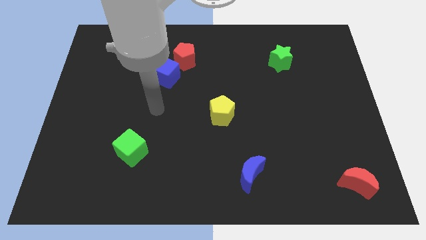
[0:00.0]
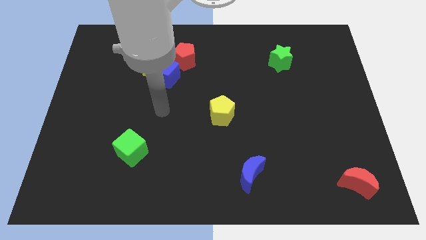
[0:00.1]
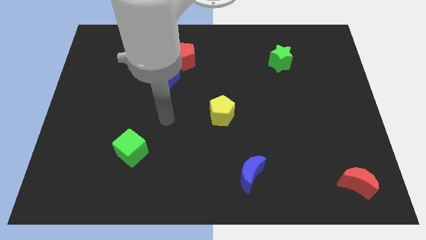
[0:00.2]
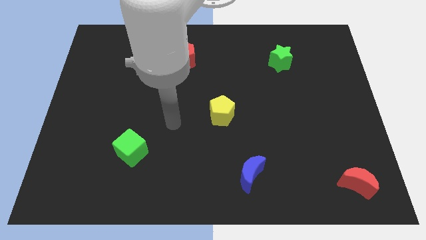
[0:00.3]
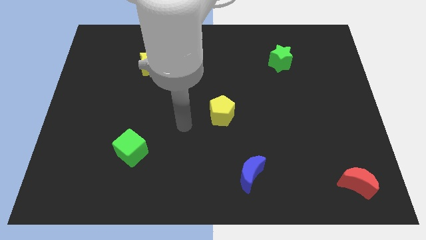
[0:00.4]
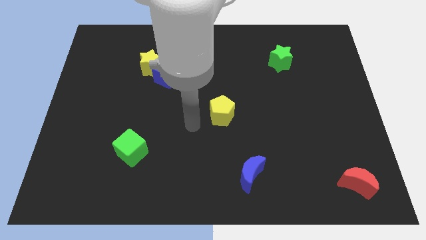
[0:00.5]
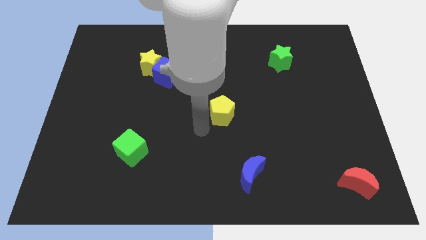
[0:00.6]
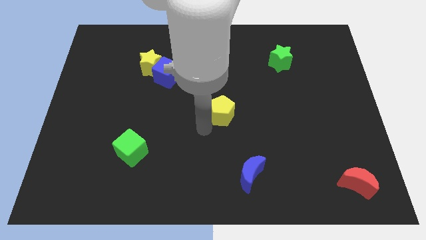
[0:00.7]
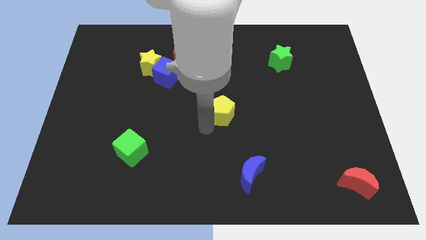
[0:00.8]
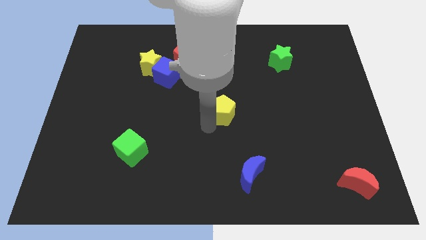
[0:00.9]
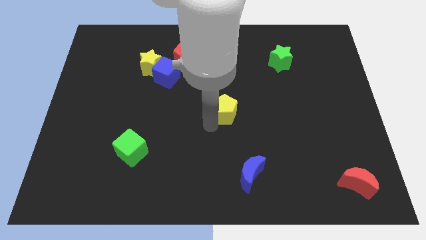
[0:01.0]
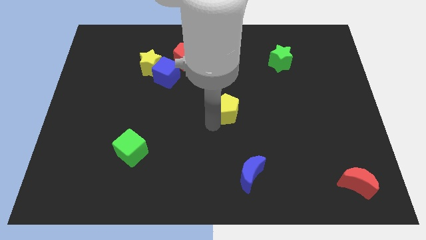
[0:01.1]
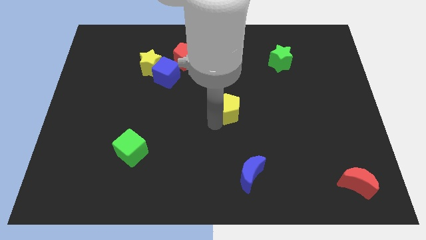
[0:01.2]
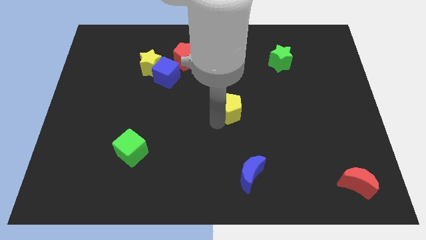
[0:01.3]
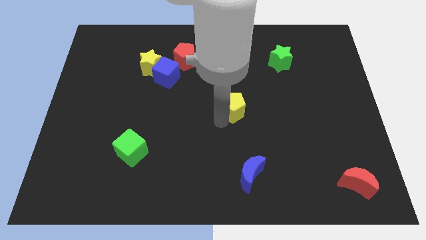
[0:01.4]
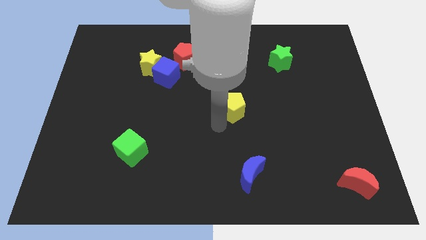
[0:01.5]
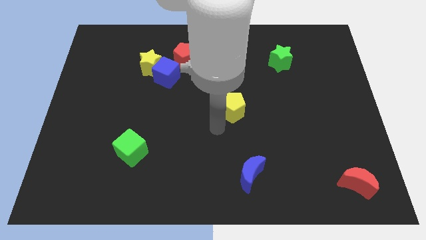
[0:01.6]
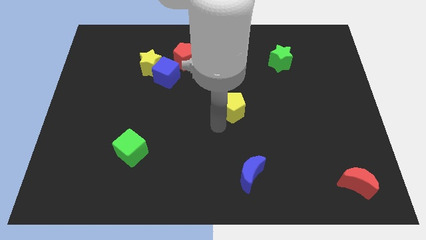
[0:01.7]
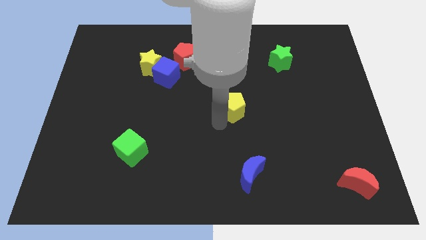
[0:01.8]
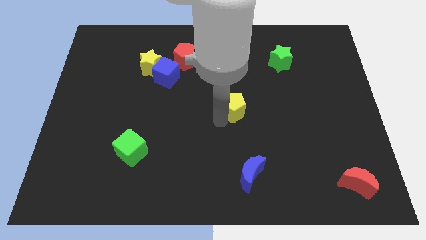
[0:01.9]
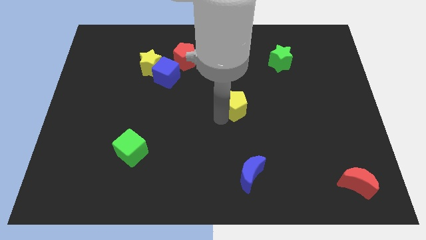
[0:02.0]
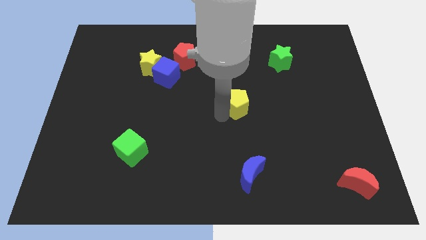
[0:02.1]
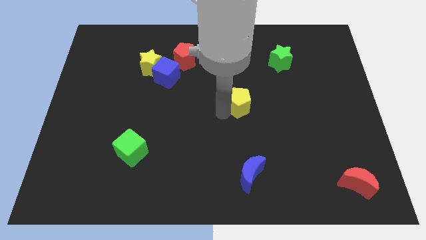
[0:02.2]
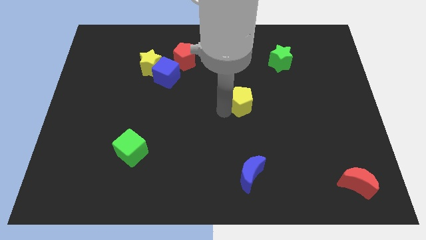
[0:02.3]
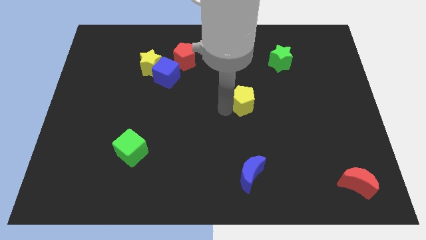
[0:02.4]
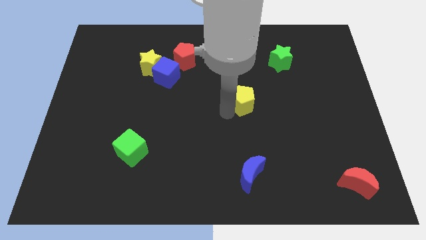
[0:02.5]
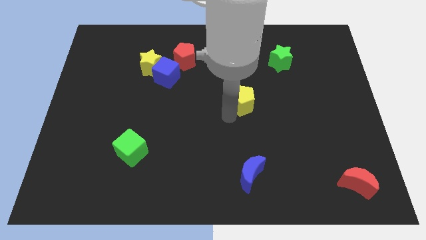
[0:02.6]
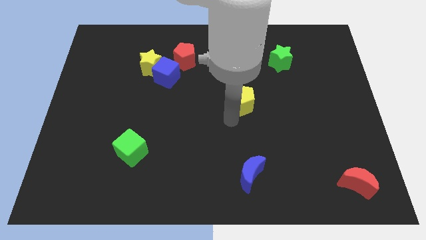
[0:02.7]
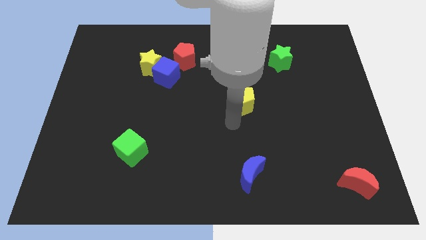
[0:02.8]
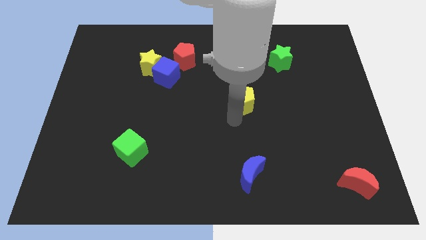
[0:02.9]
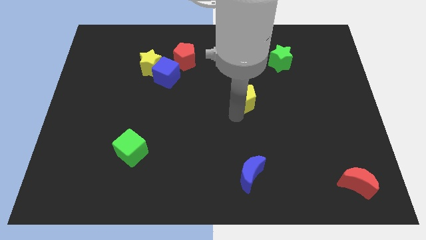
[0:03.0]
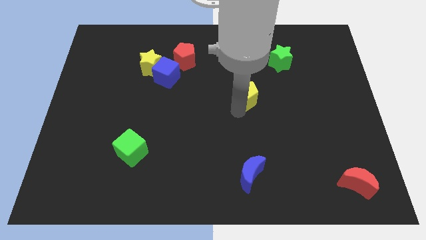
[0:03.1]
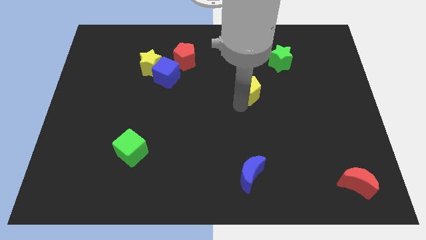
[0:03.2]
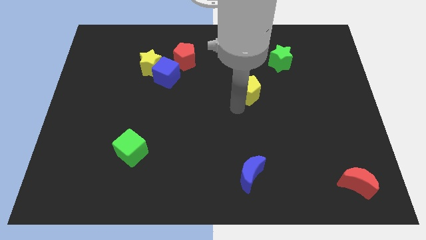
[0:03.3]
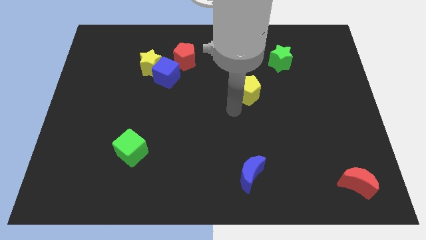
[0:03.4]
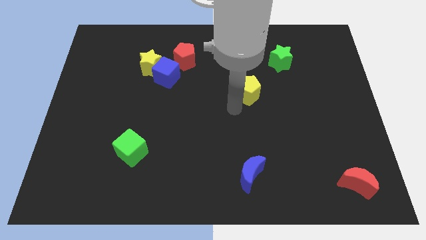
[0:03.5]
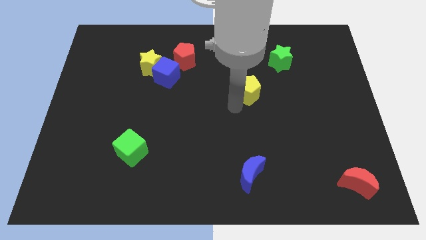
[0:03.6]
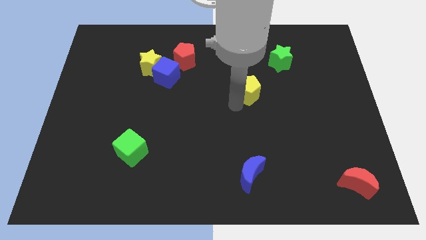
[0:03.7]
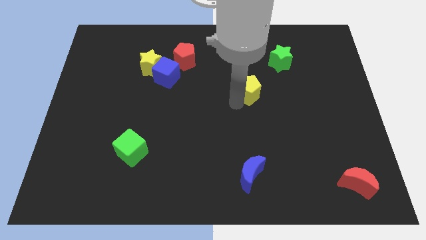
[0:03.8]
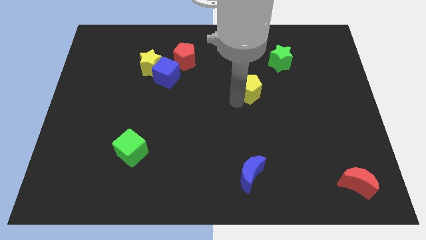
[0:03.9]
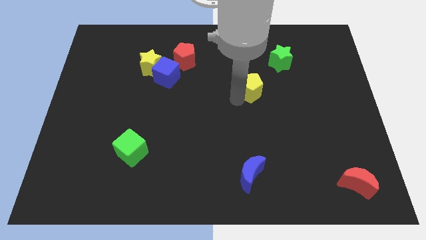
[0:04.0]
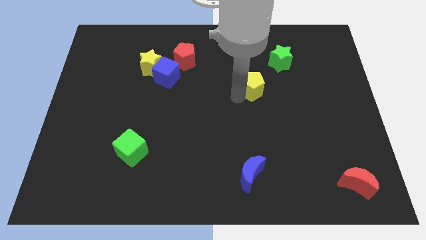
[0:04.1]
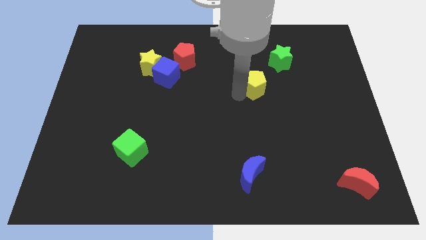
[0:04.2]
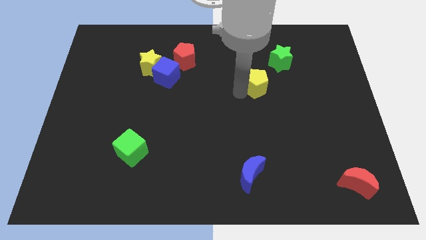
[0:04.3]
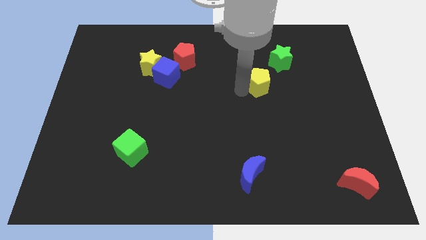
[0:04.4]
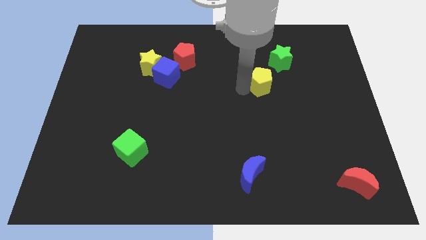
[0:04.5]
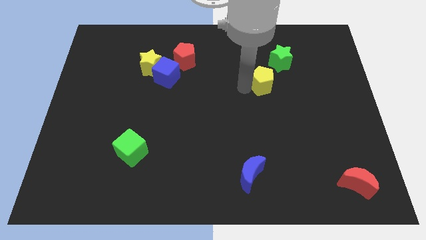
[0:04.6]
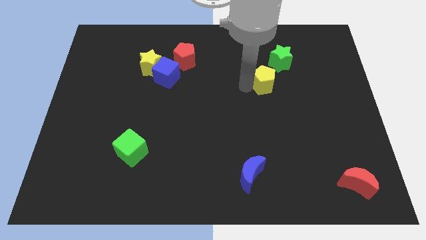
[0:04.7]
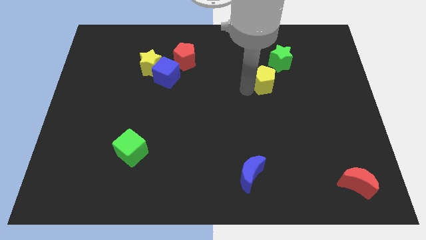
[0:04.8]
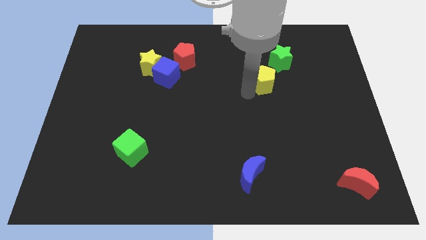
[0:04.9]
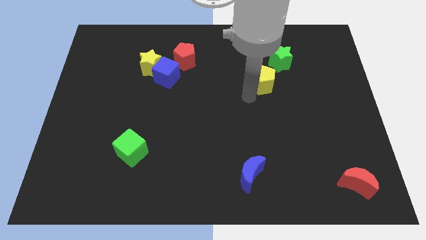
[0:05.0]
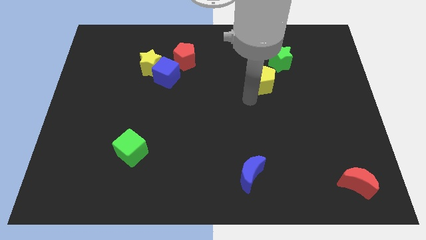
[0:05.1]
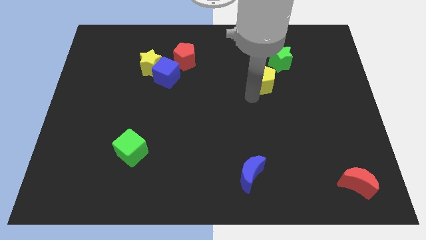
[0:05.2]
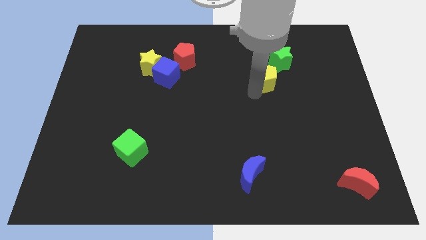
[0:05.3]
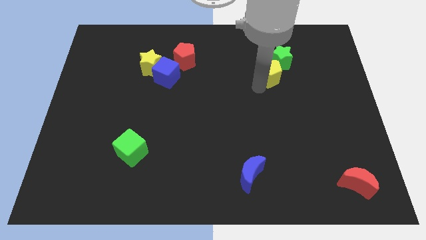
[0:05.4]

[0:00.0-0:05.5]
slide the yellow pentagon to the green star

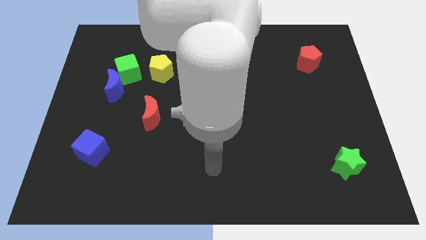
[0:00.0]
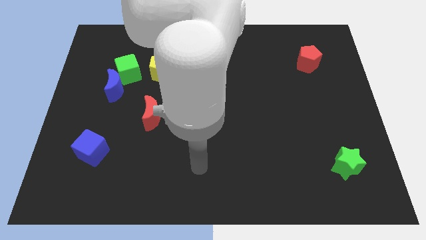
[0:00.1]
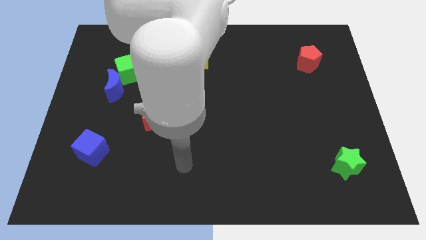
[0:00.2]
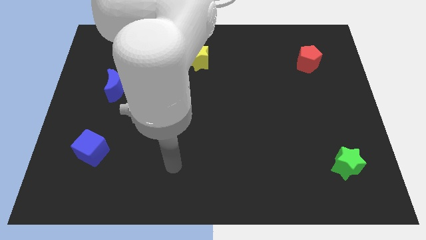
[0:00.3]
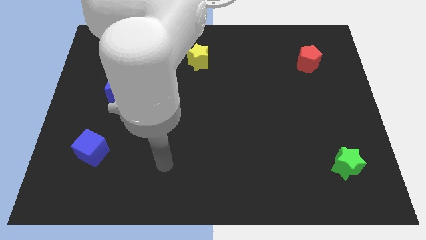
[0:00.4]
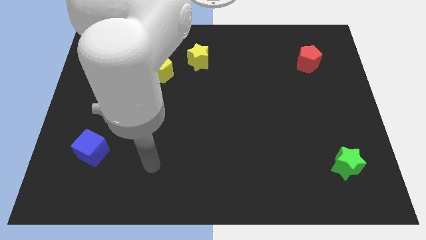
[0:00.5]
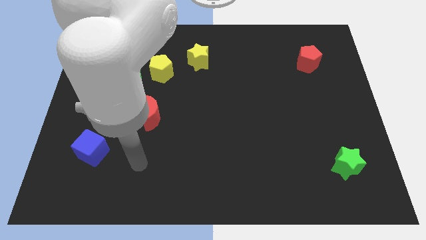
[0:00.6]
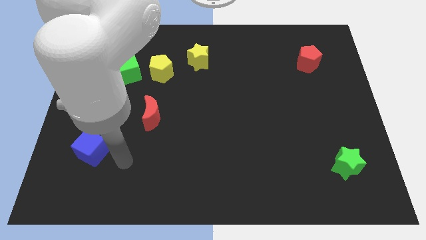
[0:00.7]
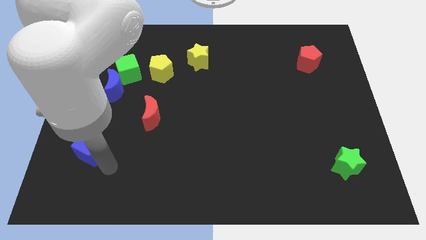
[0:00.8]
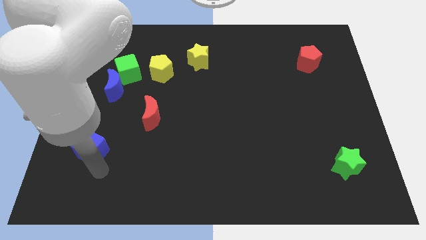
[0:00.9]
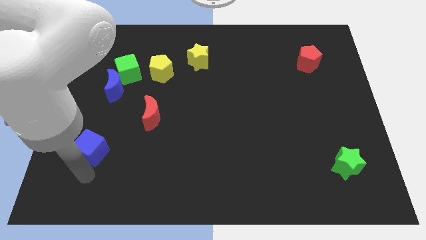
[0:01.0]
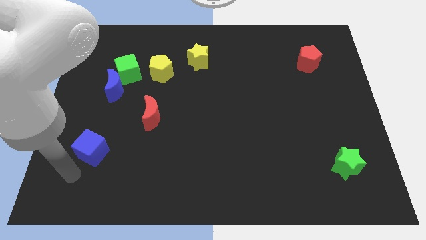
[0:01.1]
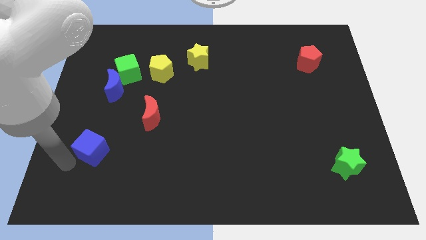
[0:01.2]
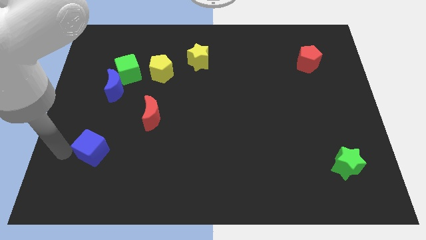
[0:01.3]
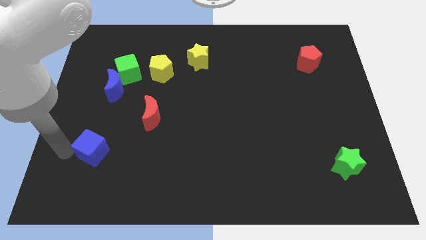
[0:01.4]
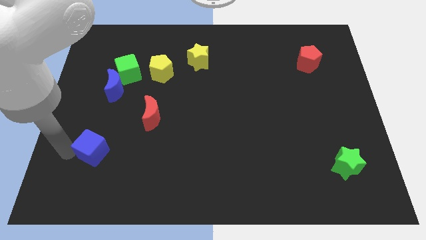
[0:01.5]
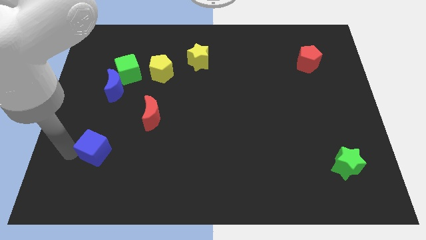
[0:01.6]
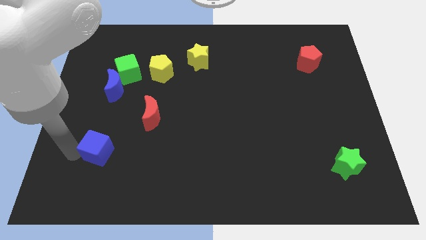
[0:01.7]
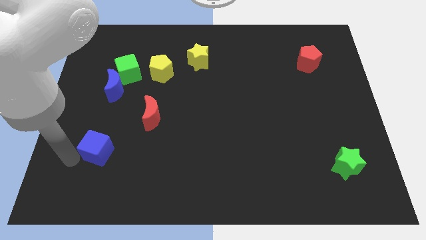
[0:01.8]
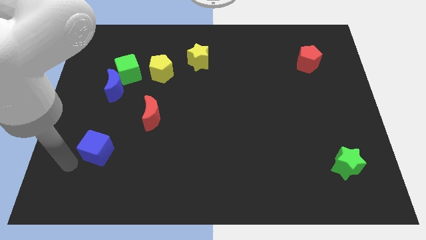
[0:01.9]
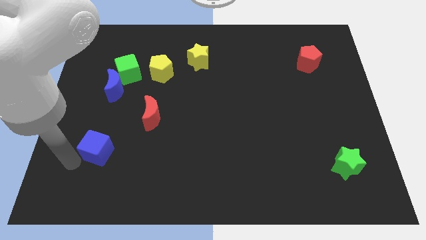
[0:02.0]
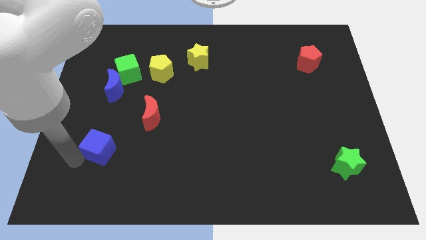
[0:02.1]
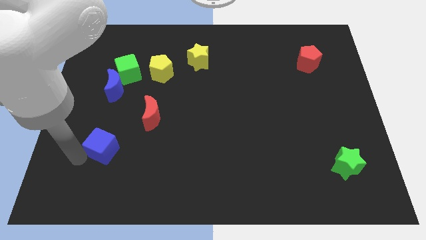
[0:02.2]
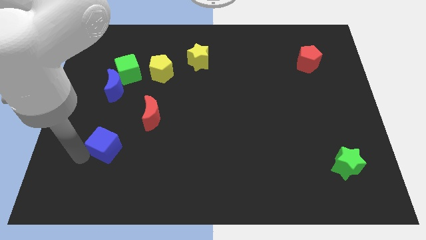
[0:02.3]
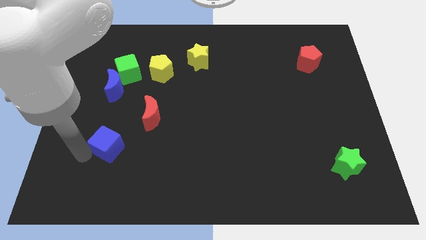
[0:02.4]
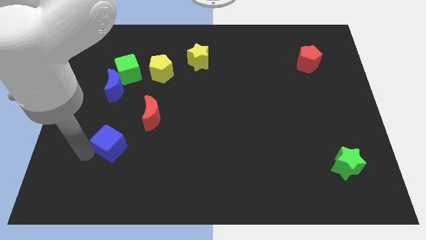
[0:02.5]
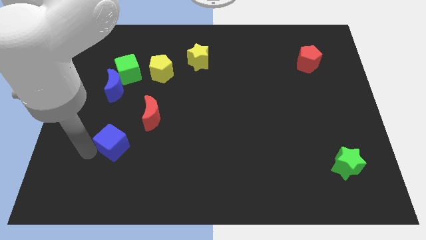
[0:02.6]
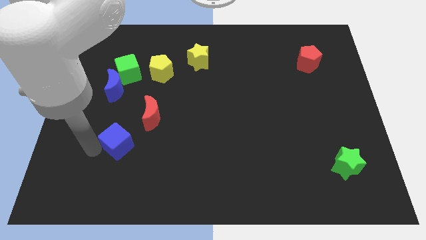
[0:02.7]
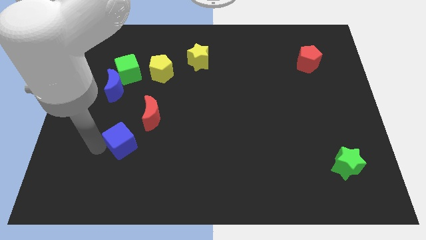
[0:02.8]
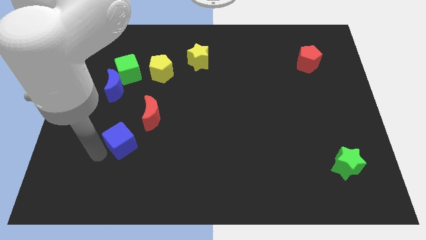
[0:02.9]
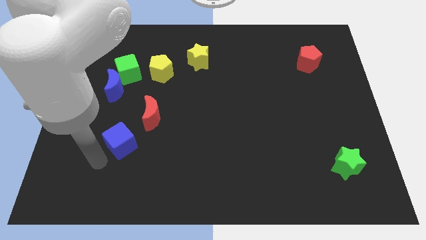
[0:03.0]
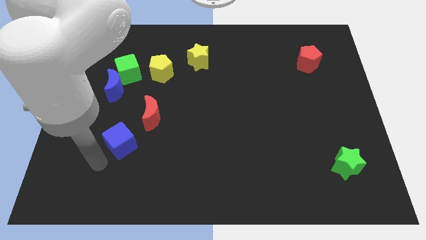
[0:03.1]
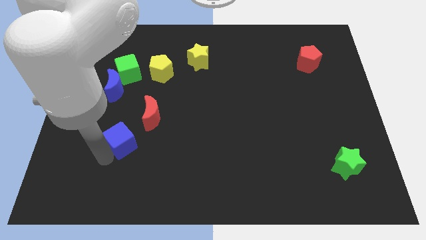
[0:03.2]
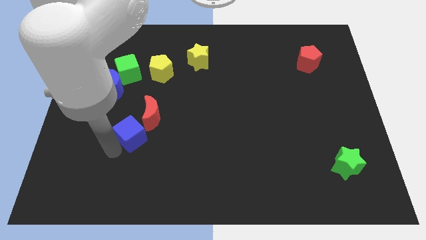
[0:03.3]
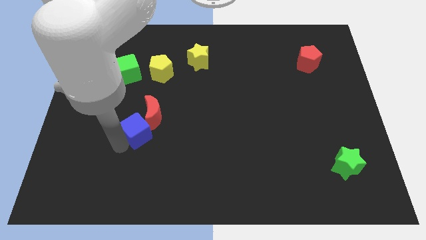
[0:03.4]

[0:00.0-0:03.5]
move the blue cube towards the red moon
